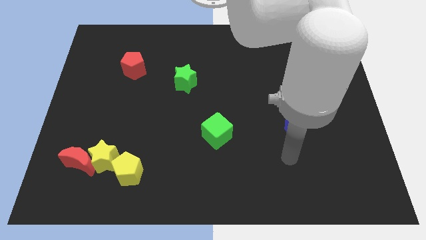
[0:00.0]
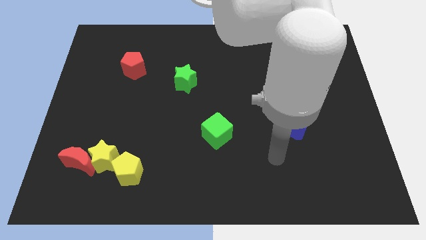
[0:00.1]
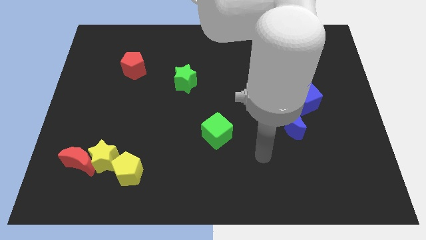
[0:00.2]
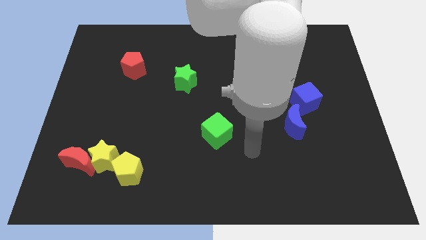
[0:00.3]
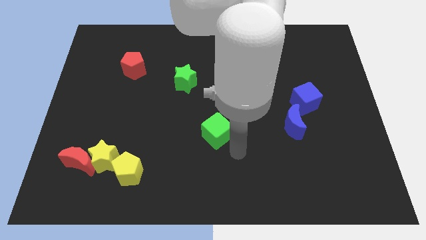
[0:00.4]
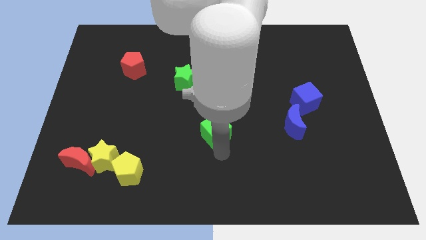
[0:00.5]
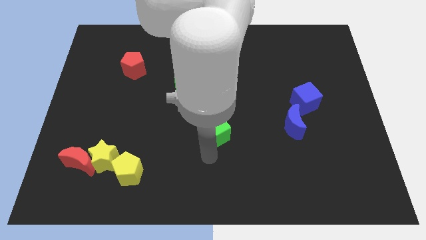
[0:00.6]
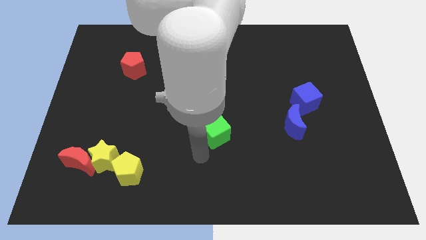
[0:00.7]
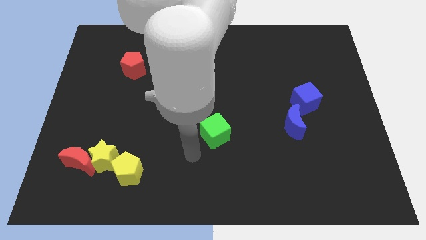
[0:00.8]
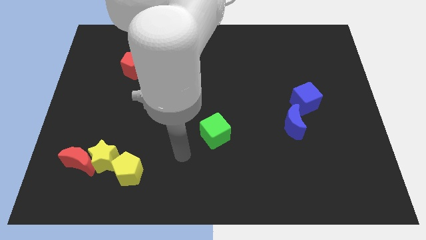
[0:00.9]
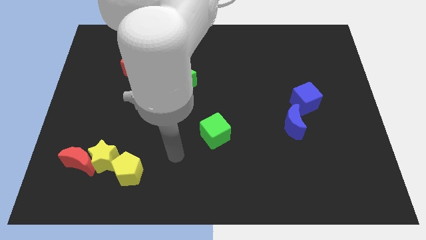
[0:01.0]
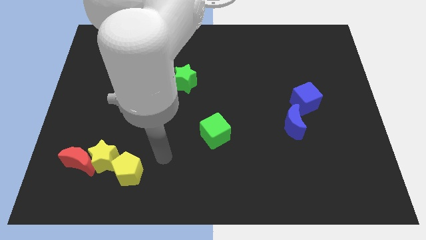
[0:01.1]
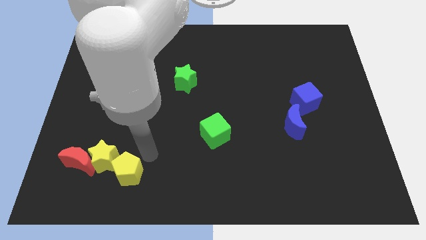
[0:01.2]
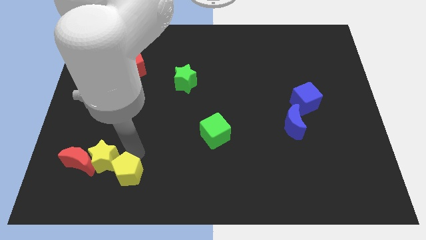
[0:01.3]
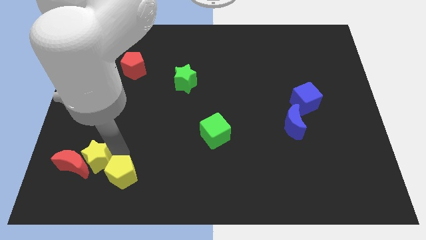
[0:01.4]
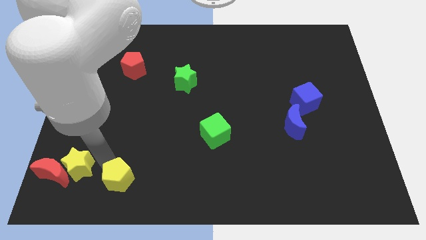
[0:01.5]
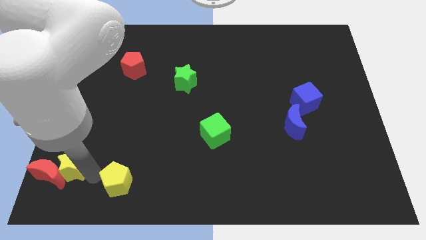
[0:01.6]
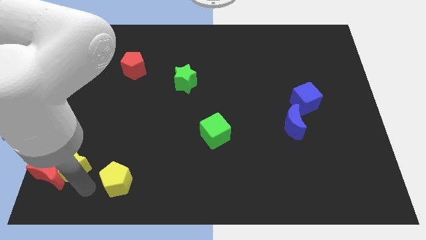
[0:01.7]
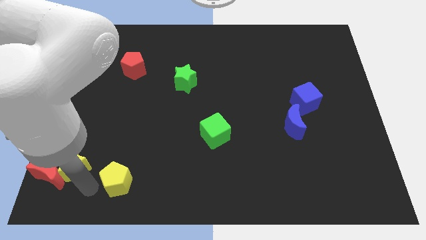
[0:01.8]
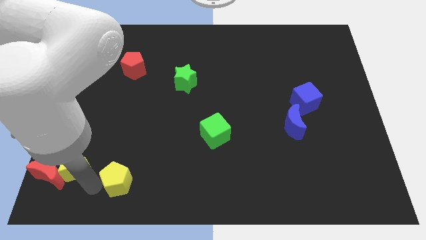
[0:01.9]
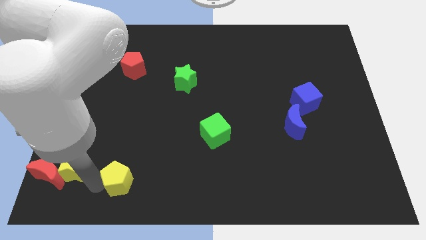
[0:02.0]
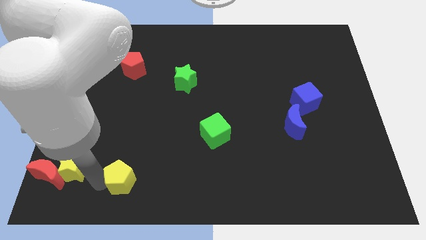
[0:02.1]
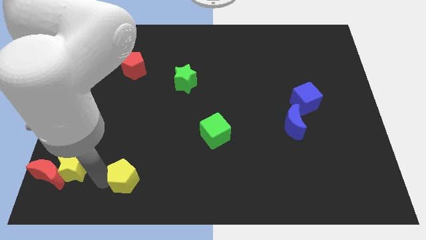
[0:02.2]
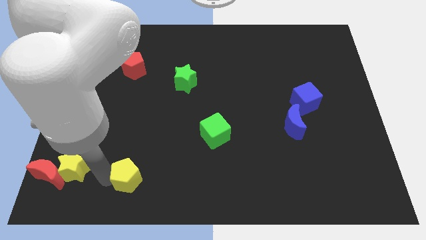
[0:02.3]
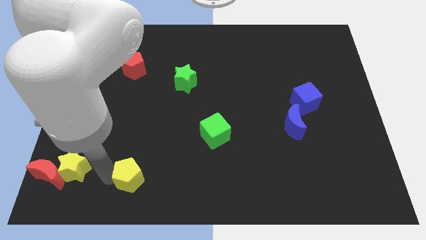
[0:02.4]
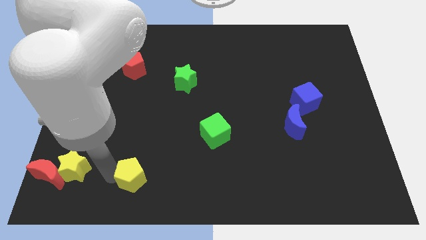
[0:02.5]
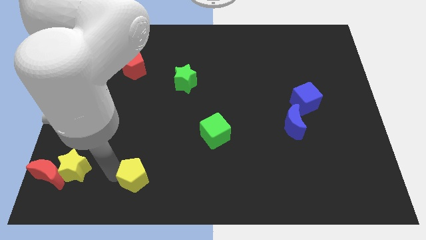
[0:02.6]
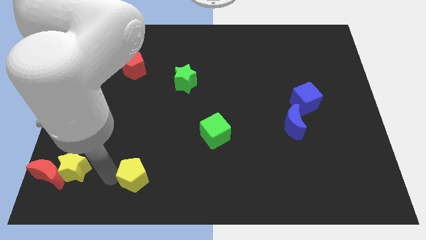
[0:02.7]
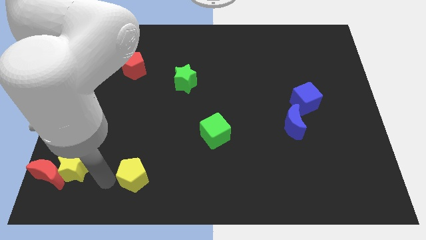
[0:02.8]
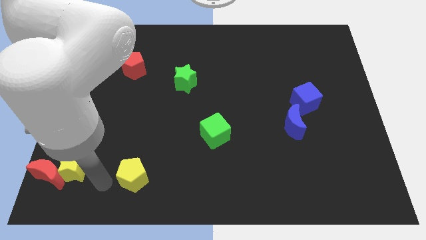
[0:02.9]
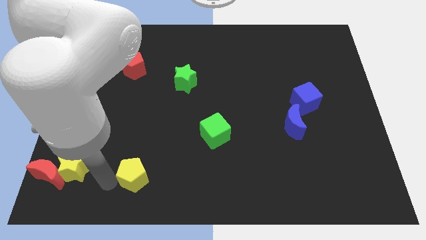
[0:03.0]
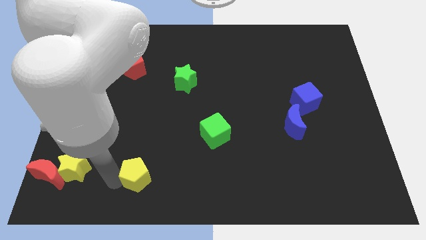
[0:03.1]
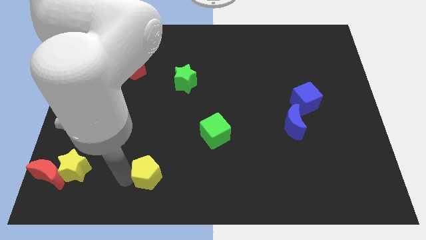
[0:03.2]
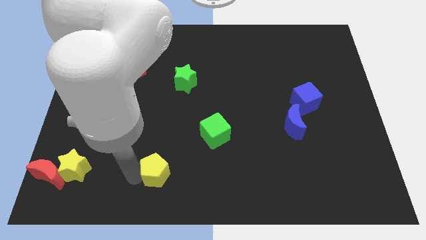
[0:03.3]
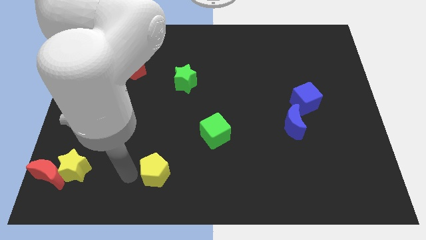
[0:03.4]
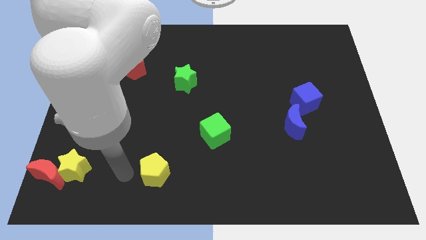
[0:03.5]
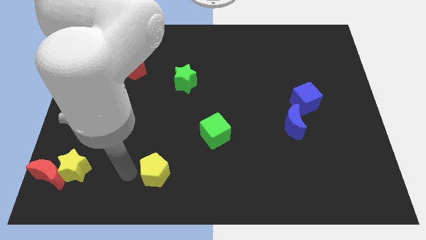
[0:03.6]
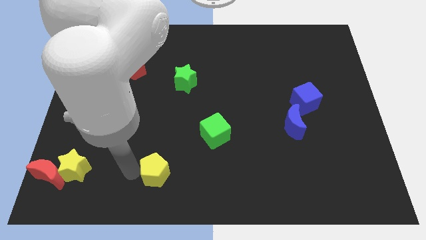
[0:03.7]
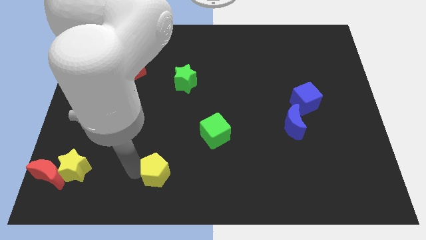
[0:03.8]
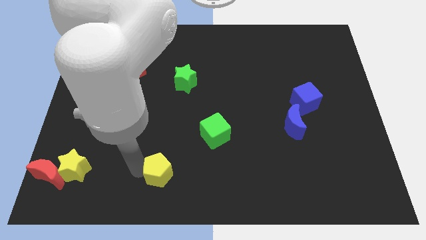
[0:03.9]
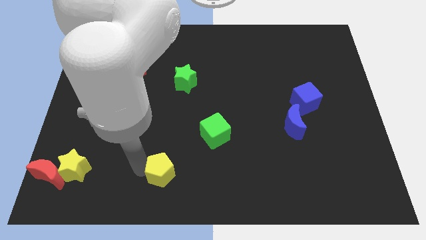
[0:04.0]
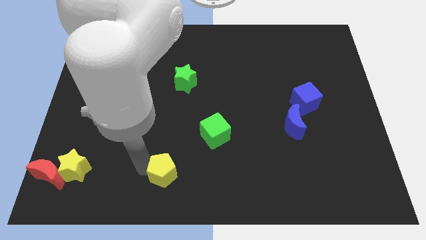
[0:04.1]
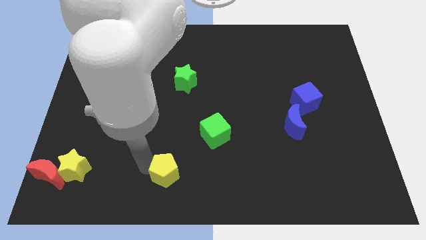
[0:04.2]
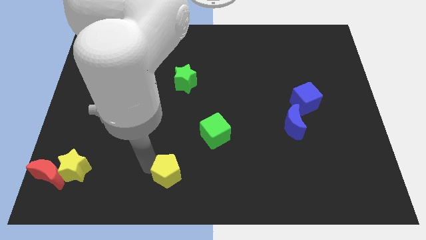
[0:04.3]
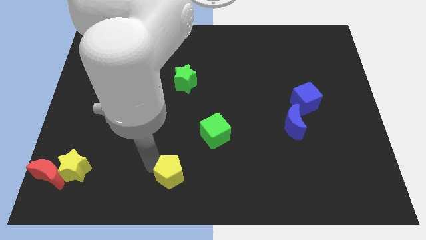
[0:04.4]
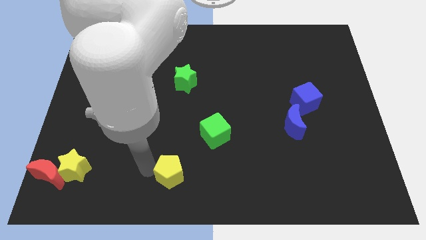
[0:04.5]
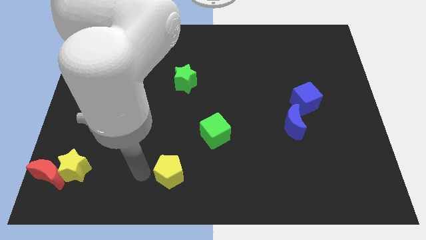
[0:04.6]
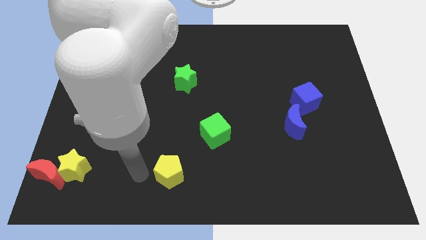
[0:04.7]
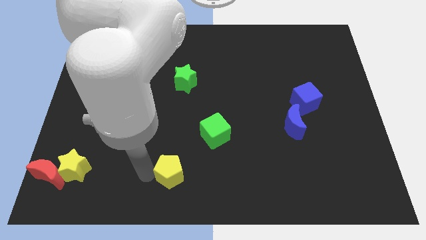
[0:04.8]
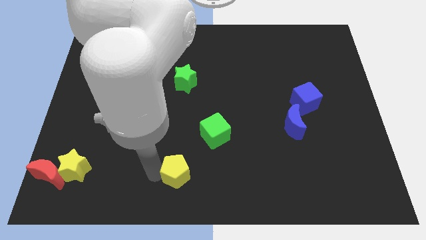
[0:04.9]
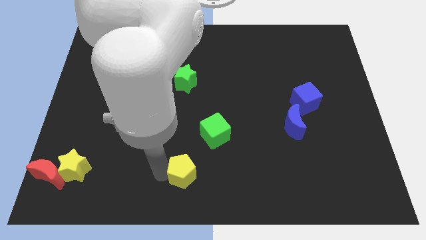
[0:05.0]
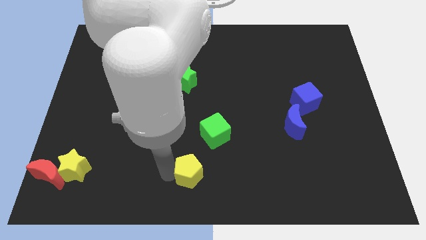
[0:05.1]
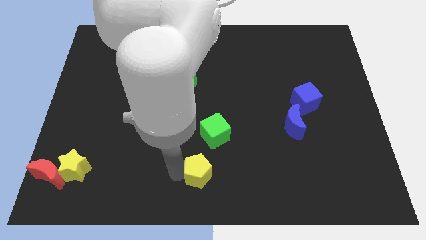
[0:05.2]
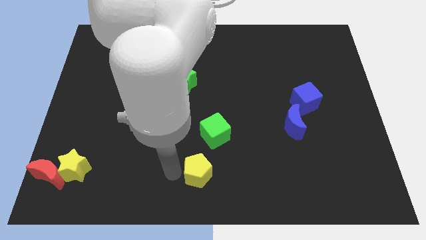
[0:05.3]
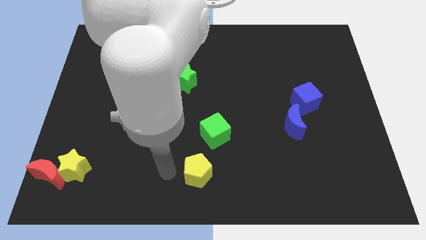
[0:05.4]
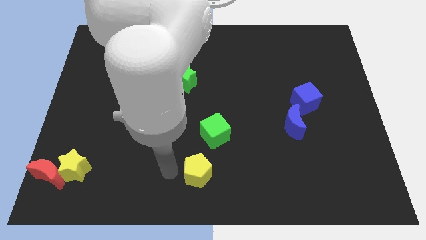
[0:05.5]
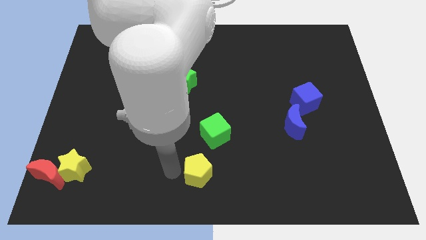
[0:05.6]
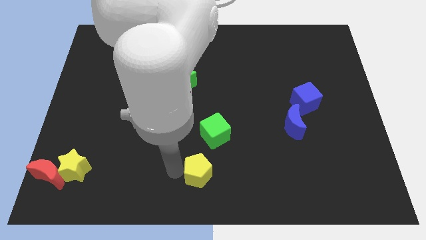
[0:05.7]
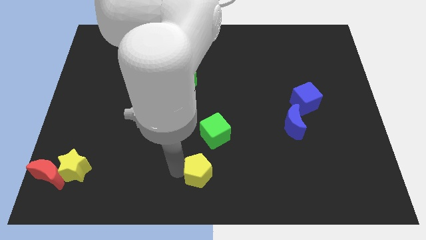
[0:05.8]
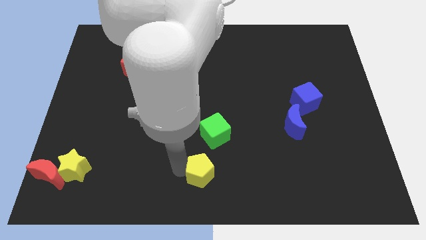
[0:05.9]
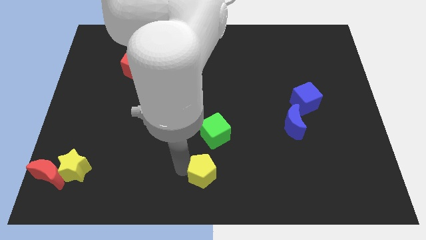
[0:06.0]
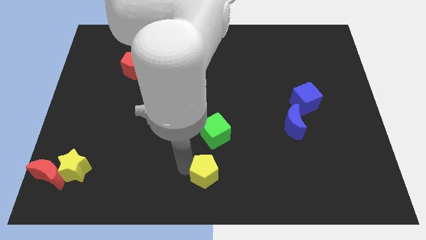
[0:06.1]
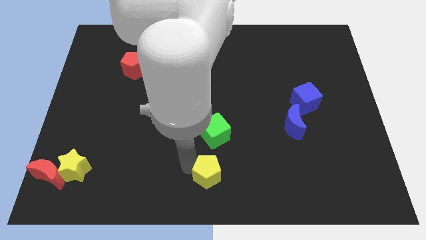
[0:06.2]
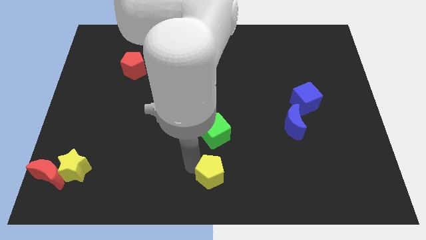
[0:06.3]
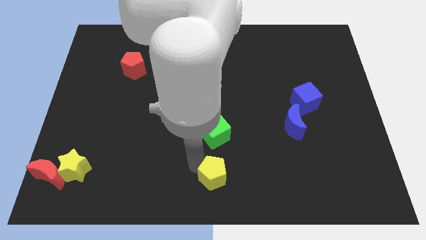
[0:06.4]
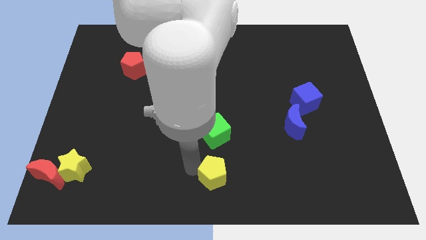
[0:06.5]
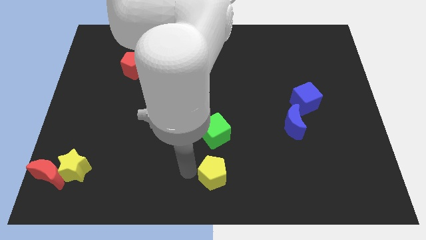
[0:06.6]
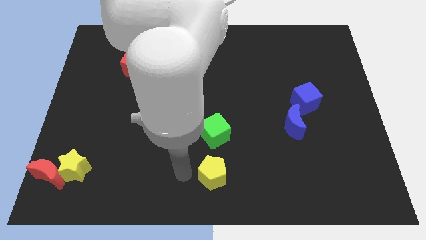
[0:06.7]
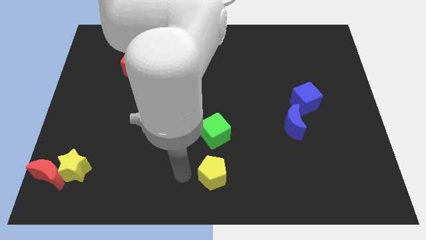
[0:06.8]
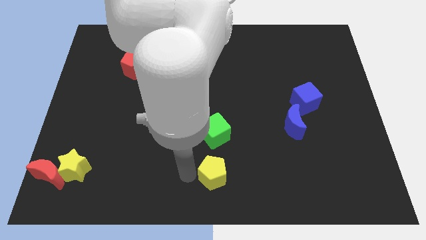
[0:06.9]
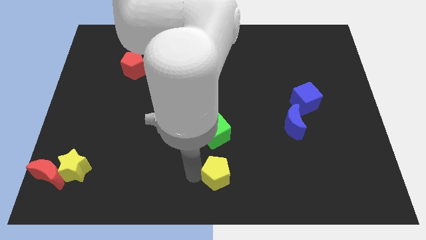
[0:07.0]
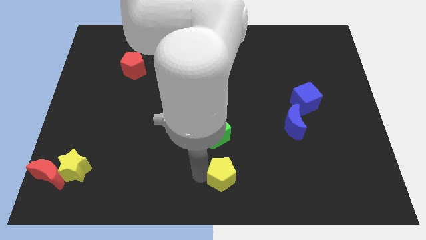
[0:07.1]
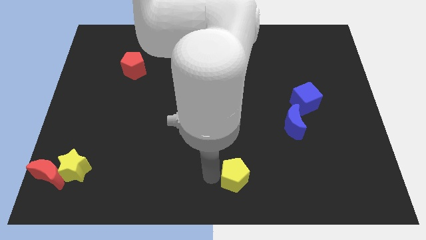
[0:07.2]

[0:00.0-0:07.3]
push the yellow pentagon right

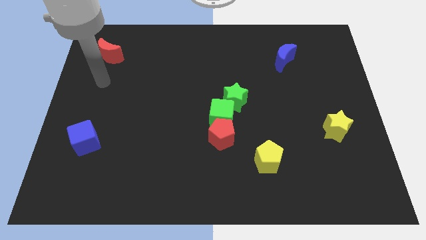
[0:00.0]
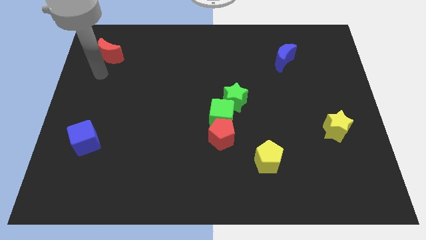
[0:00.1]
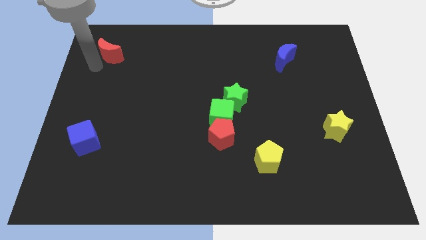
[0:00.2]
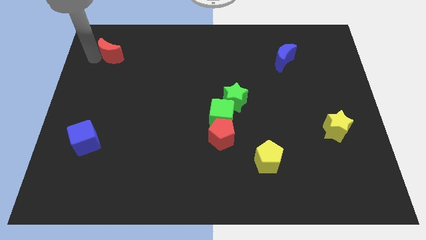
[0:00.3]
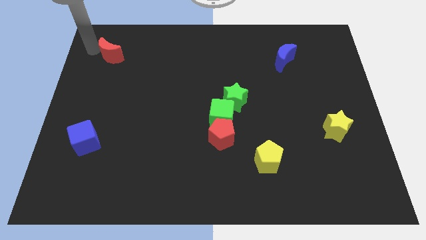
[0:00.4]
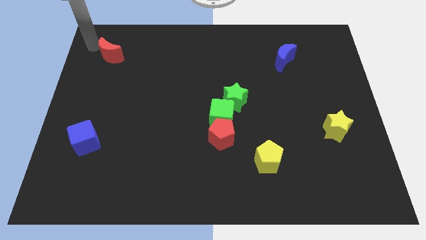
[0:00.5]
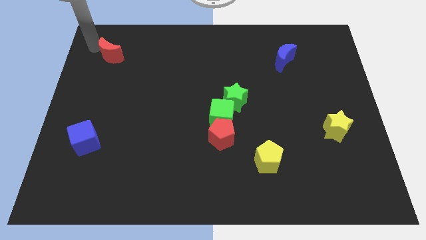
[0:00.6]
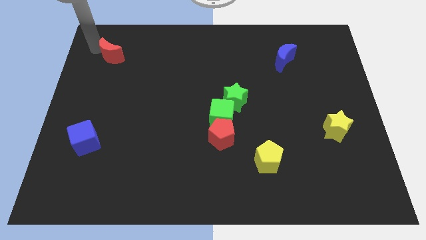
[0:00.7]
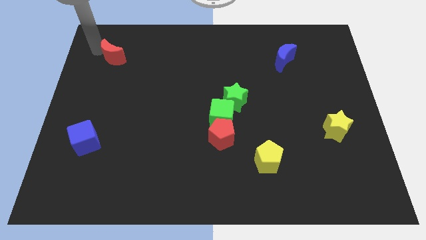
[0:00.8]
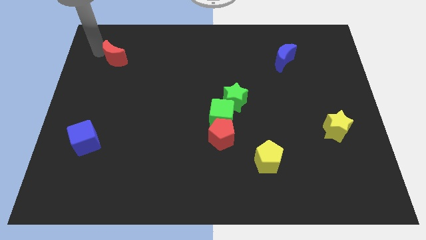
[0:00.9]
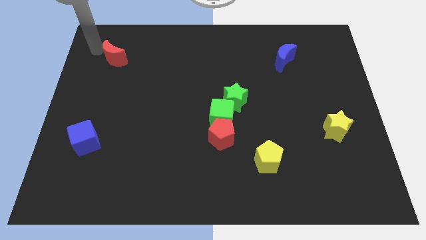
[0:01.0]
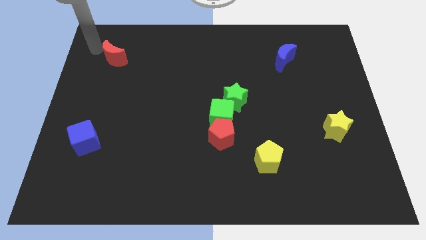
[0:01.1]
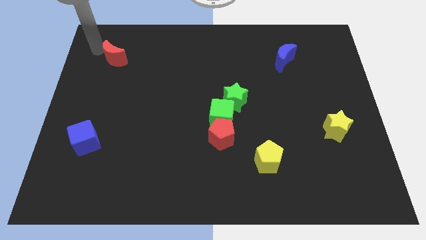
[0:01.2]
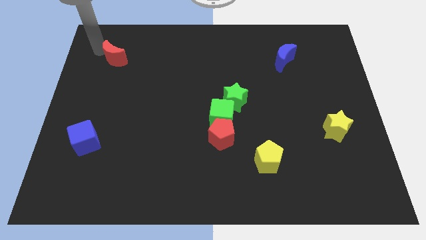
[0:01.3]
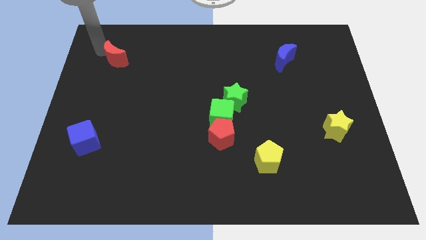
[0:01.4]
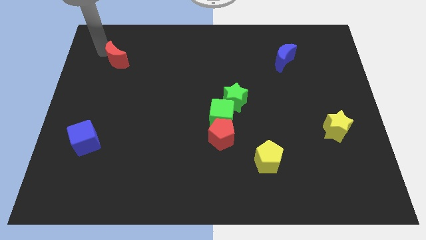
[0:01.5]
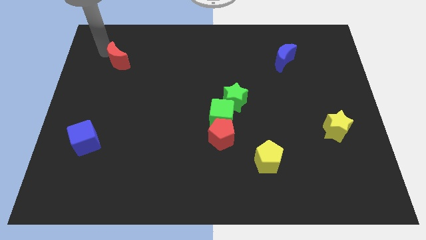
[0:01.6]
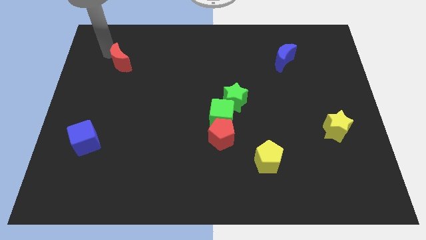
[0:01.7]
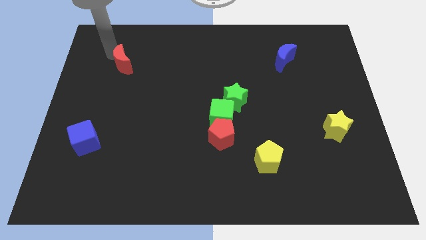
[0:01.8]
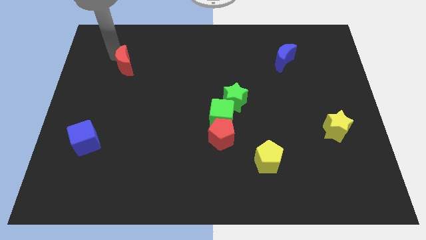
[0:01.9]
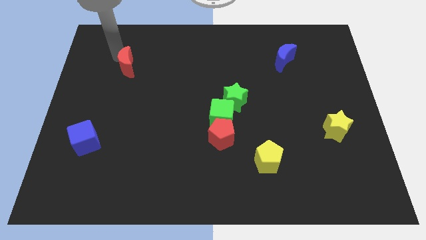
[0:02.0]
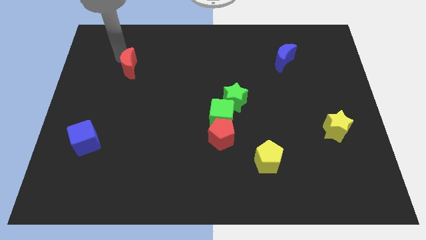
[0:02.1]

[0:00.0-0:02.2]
push the red moon somewhat diagonally down and to the right
